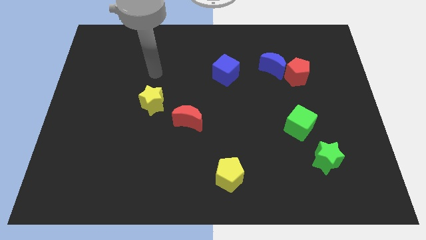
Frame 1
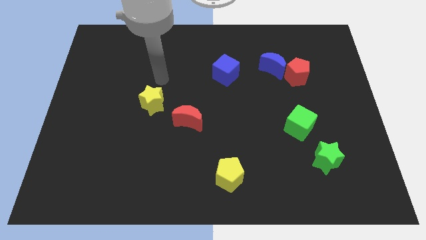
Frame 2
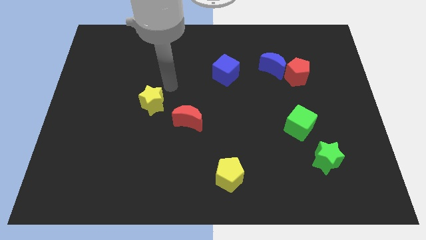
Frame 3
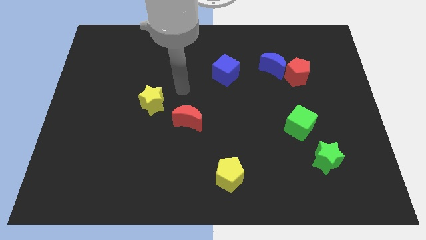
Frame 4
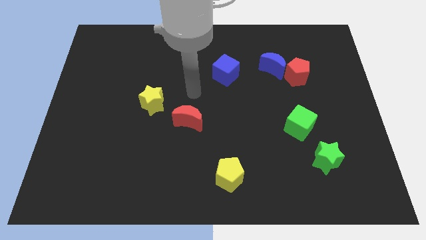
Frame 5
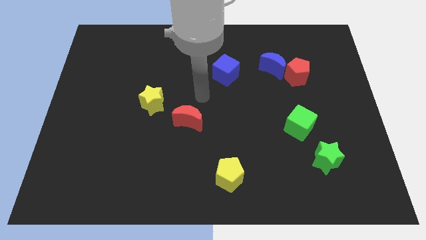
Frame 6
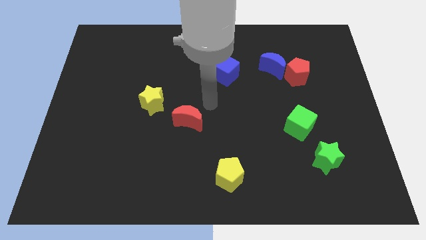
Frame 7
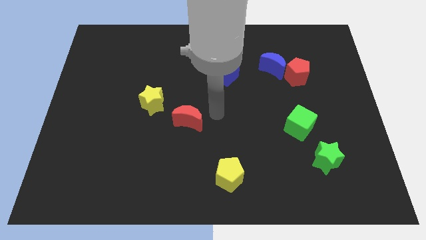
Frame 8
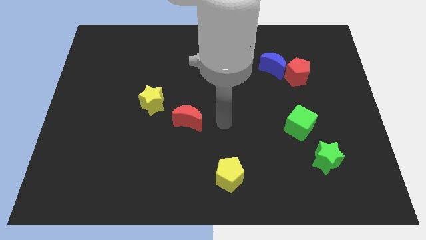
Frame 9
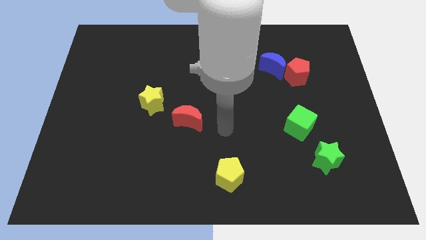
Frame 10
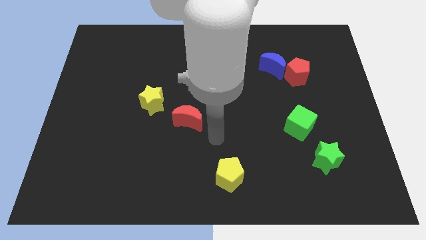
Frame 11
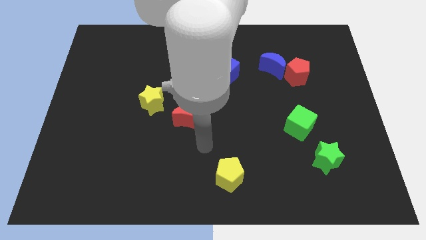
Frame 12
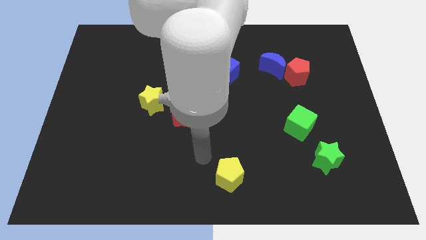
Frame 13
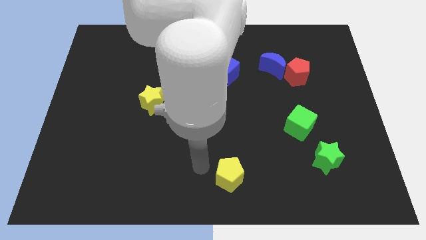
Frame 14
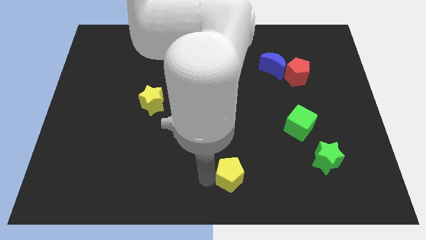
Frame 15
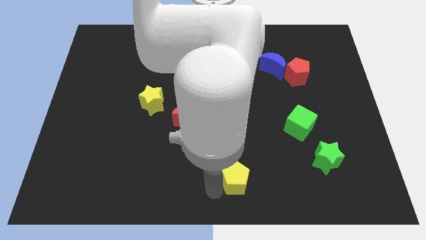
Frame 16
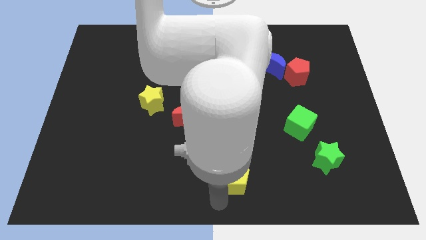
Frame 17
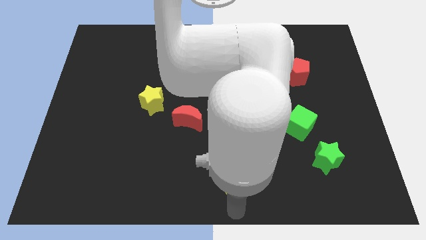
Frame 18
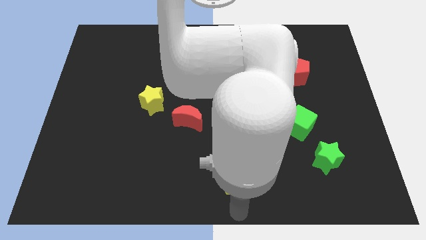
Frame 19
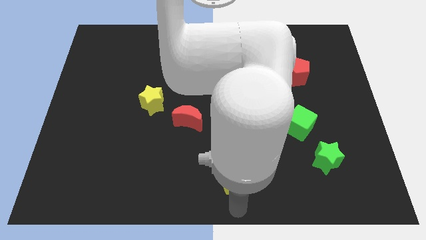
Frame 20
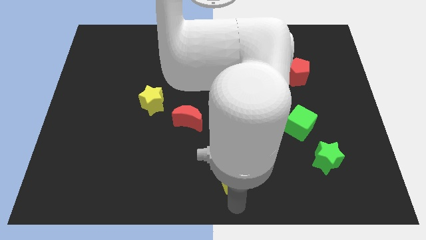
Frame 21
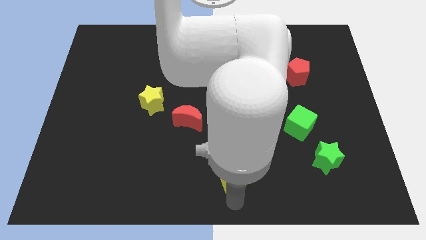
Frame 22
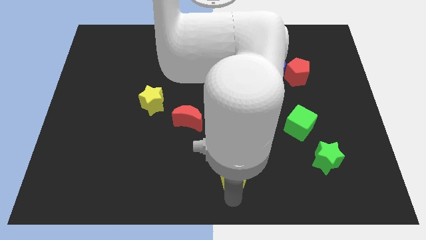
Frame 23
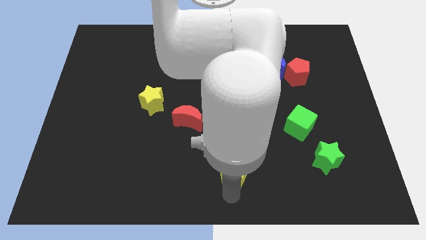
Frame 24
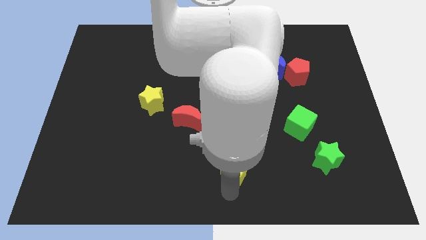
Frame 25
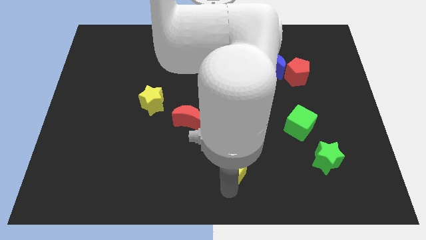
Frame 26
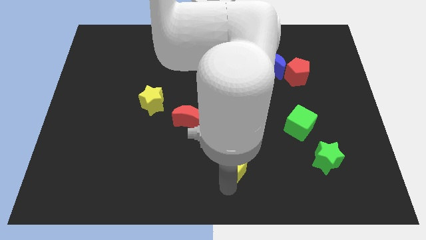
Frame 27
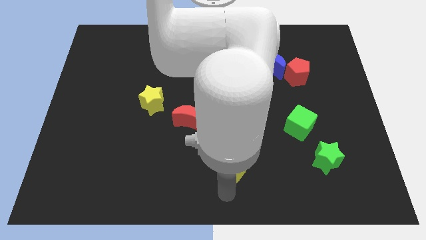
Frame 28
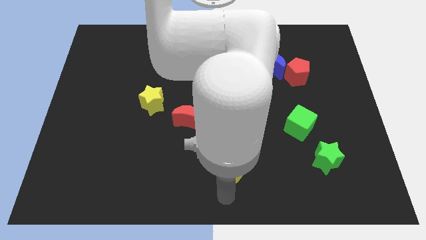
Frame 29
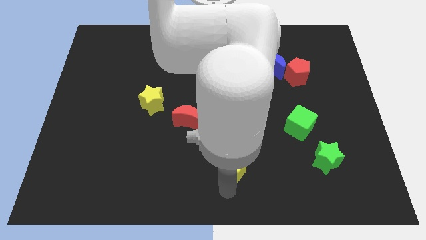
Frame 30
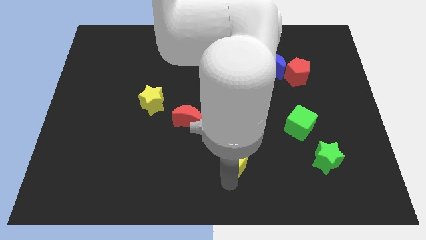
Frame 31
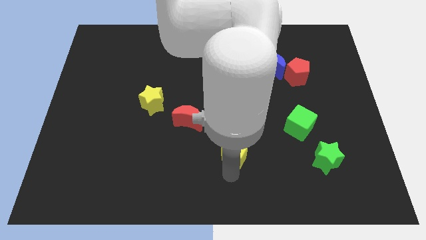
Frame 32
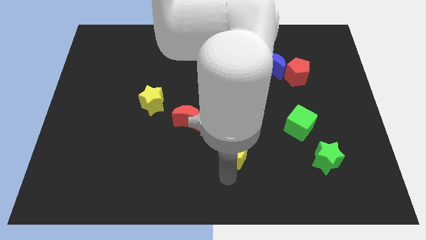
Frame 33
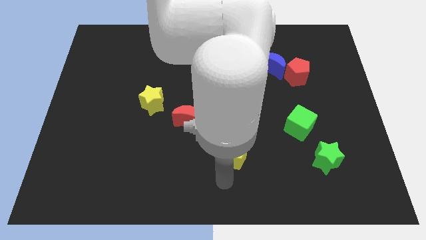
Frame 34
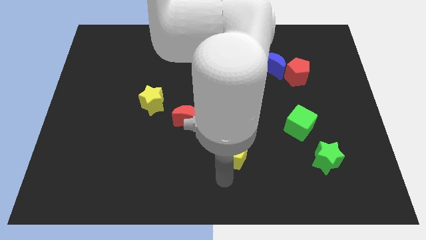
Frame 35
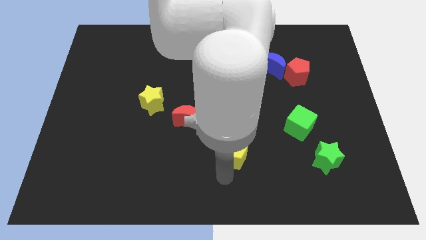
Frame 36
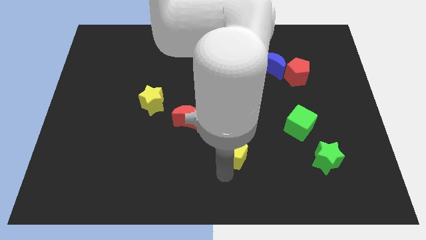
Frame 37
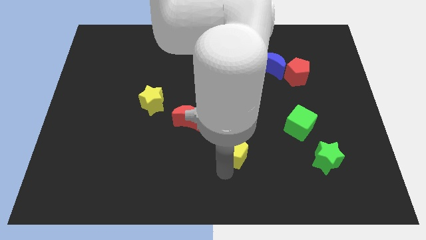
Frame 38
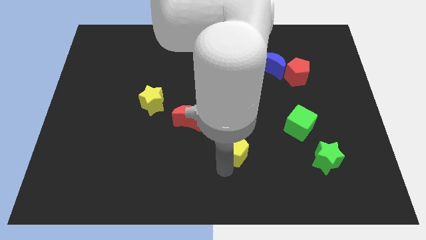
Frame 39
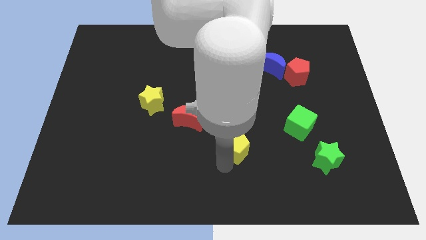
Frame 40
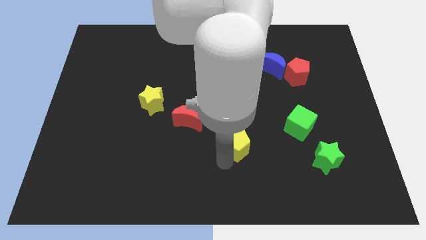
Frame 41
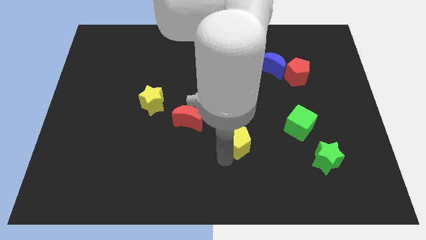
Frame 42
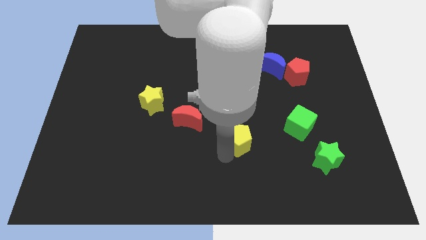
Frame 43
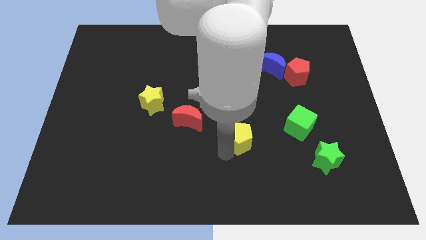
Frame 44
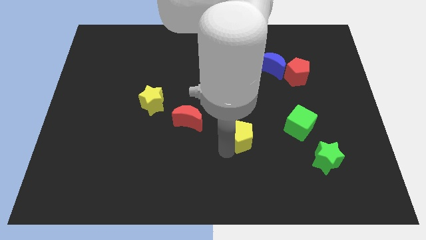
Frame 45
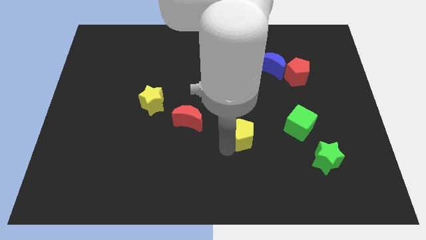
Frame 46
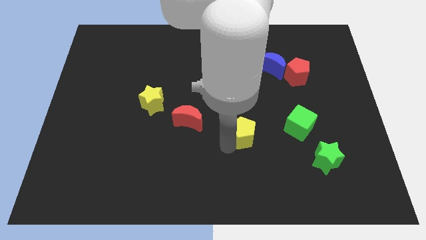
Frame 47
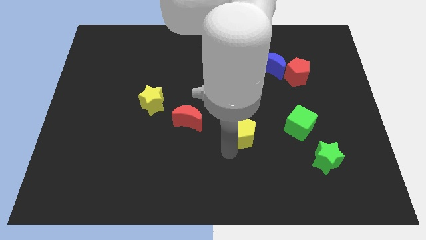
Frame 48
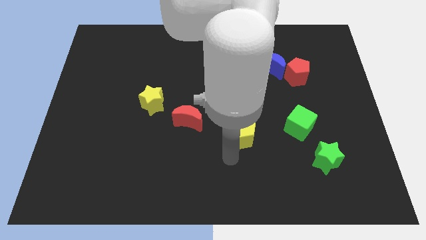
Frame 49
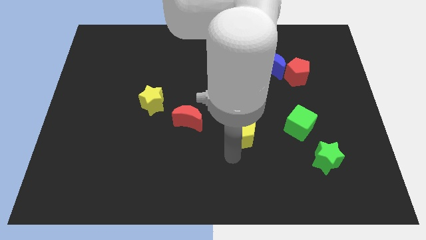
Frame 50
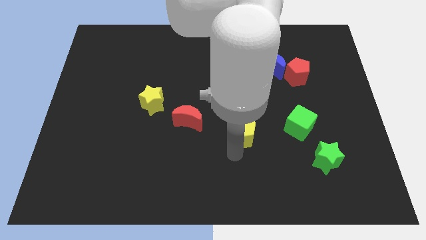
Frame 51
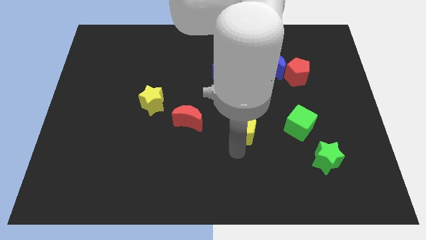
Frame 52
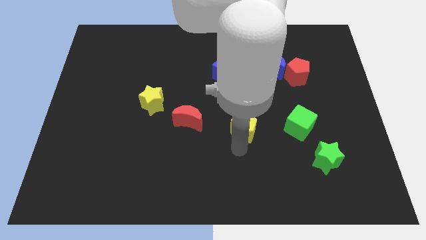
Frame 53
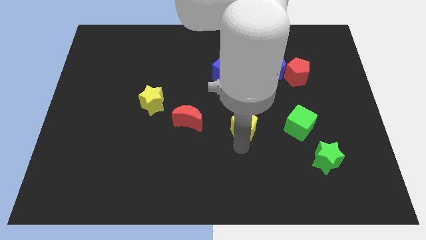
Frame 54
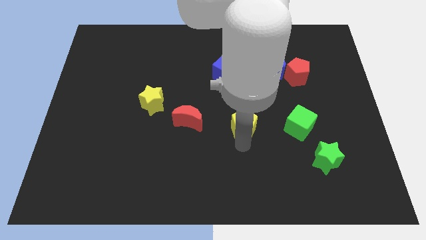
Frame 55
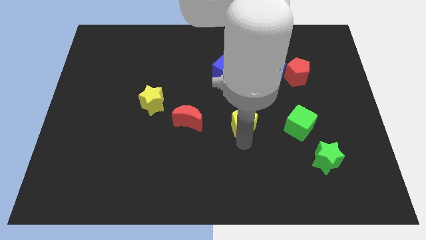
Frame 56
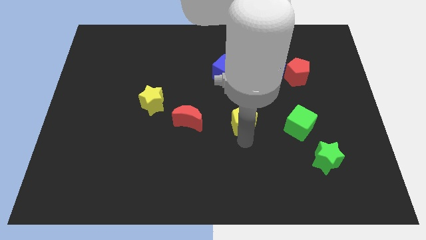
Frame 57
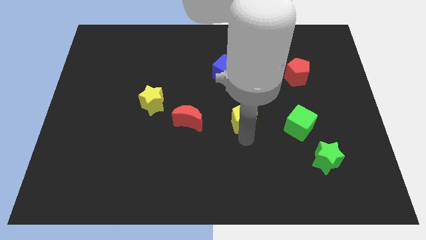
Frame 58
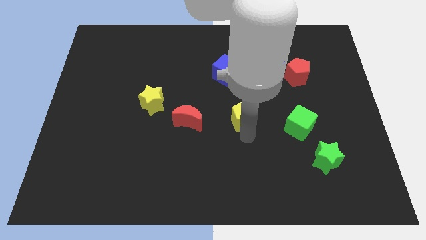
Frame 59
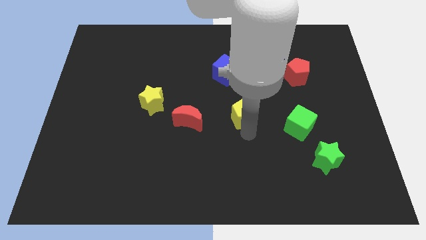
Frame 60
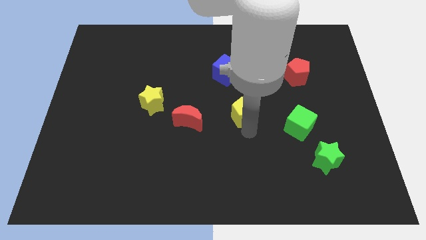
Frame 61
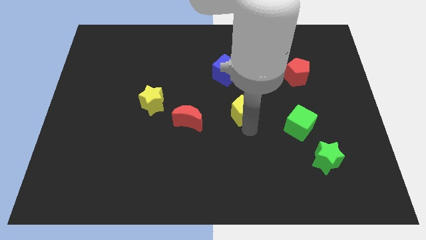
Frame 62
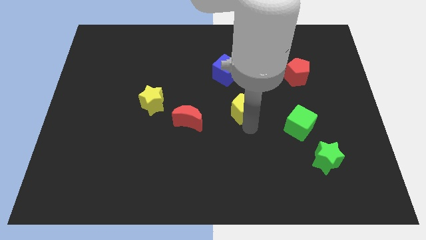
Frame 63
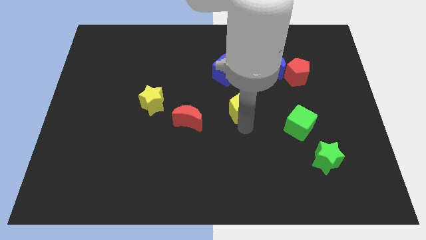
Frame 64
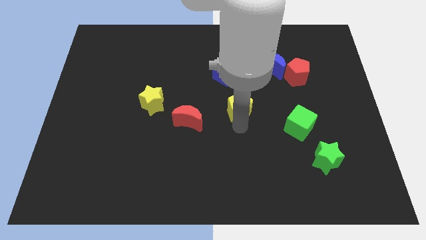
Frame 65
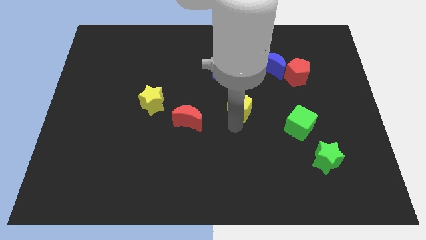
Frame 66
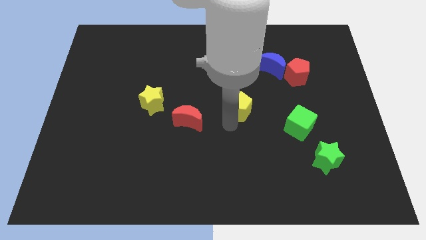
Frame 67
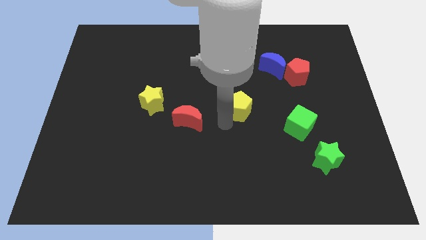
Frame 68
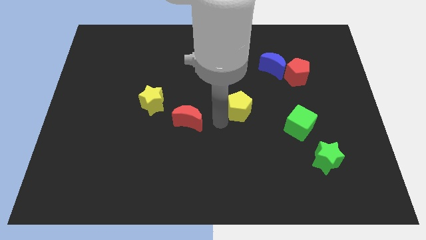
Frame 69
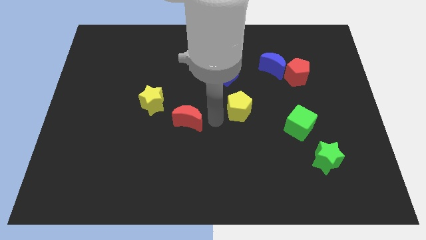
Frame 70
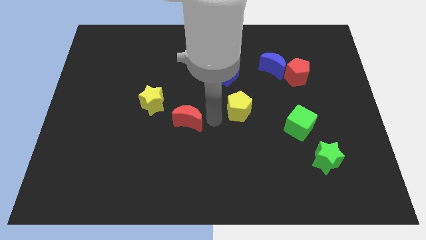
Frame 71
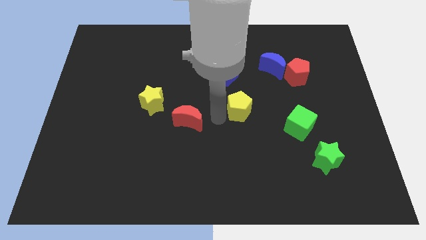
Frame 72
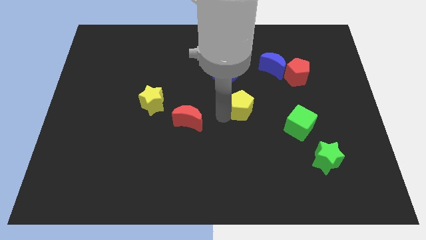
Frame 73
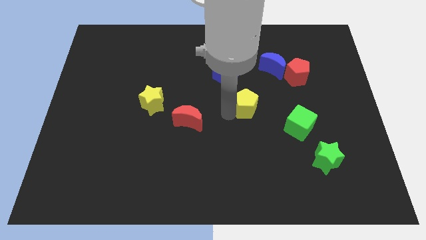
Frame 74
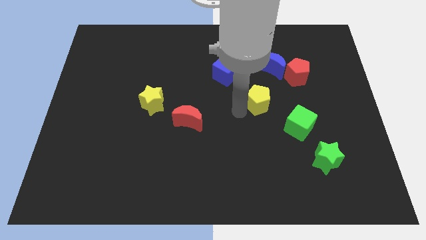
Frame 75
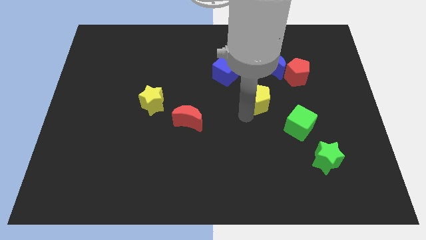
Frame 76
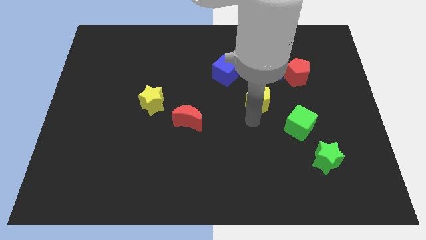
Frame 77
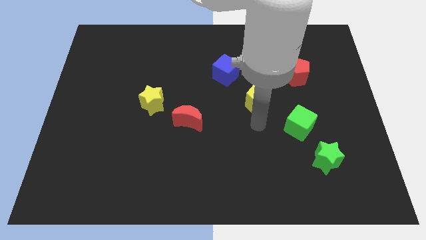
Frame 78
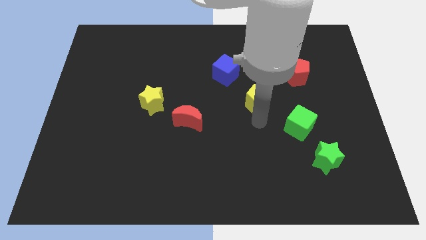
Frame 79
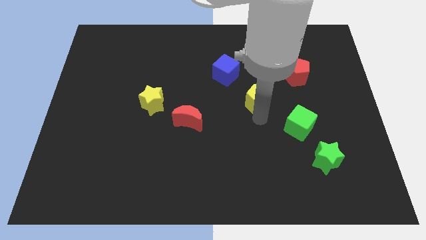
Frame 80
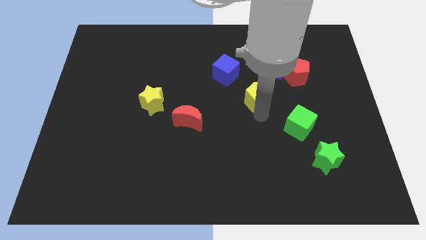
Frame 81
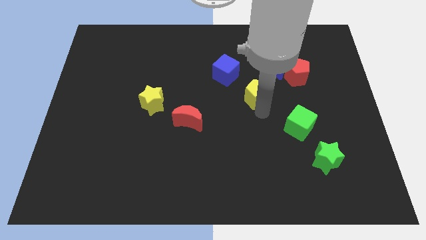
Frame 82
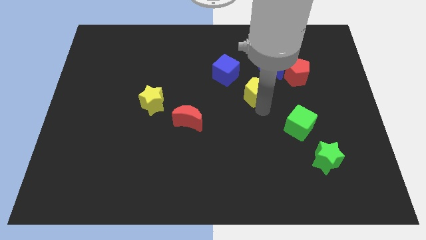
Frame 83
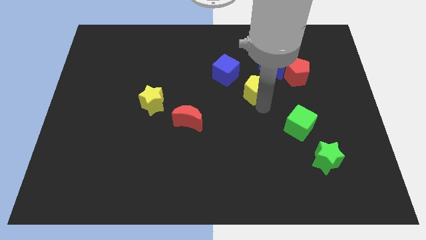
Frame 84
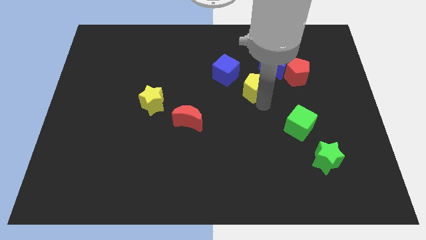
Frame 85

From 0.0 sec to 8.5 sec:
slide the yellow pentagon to the left side of the red pentagon
